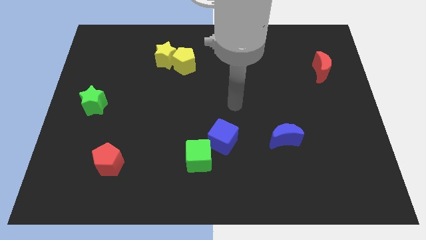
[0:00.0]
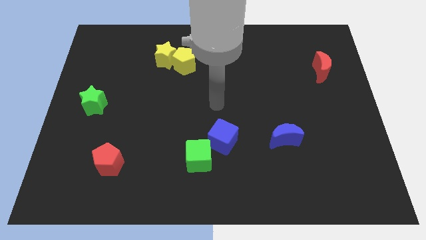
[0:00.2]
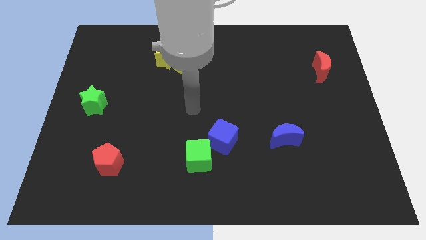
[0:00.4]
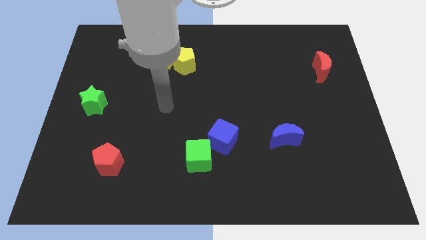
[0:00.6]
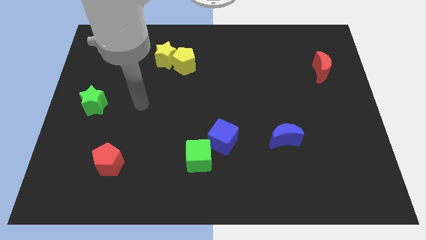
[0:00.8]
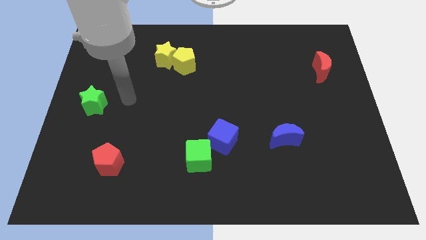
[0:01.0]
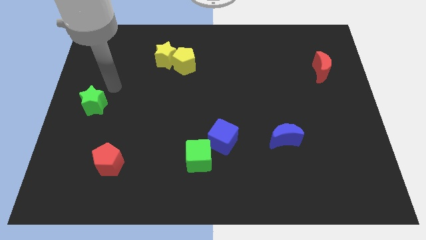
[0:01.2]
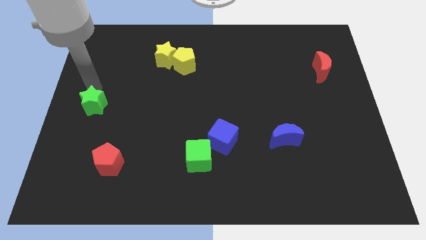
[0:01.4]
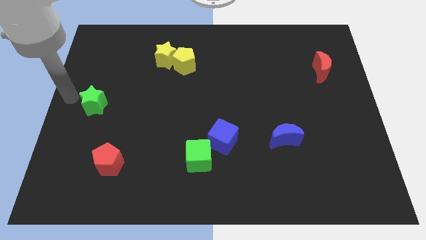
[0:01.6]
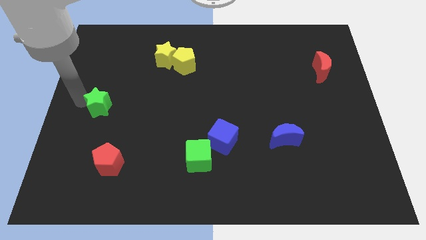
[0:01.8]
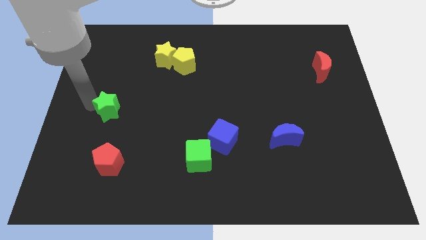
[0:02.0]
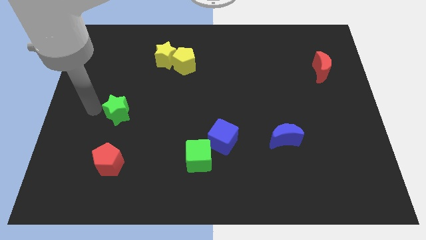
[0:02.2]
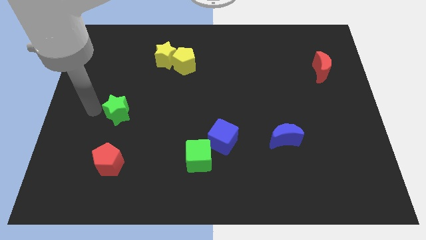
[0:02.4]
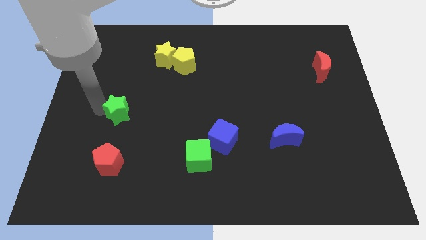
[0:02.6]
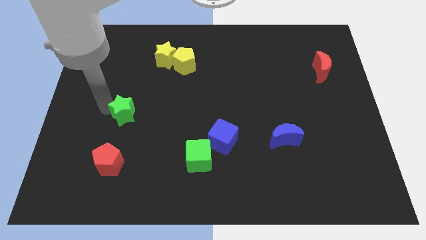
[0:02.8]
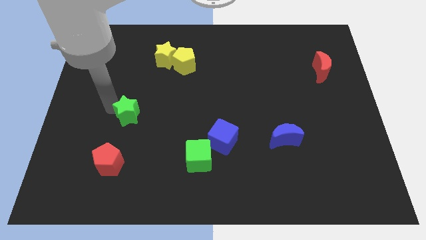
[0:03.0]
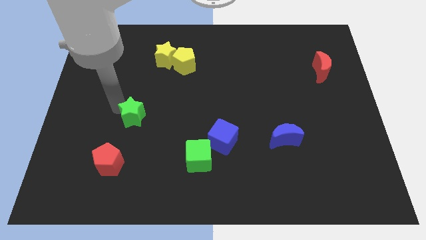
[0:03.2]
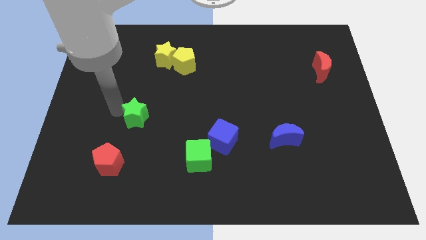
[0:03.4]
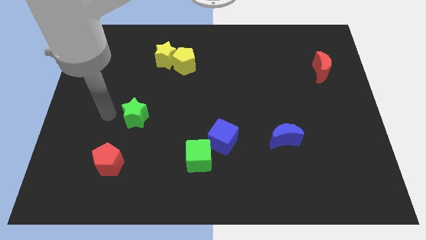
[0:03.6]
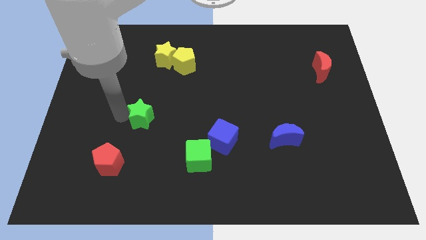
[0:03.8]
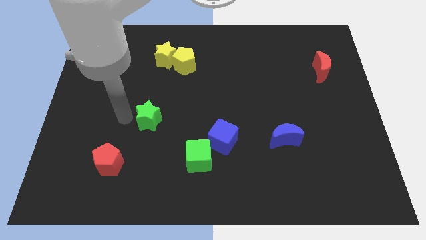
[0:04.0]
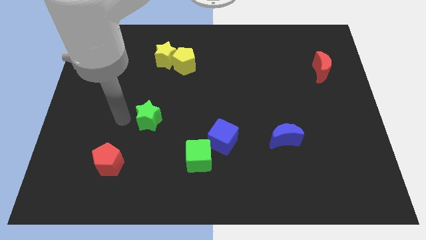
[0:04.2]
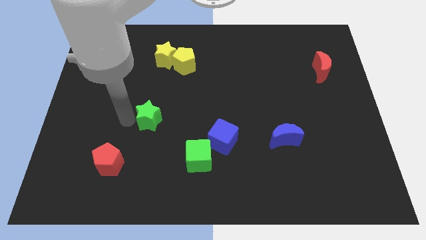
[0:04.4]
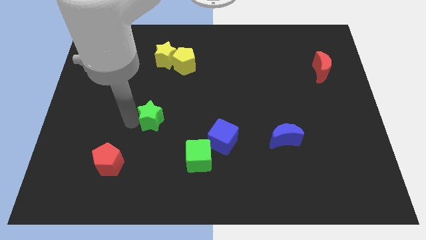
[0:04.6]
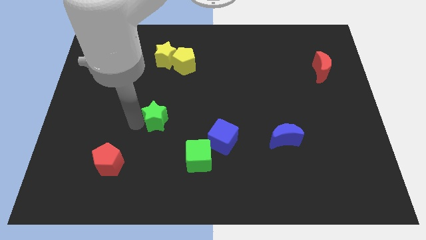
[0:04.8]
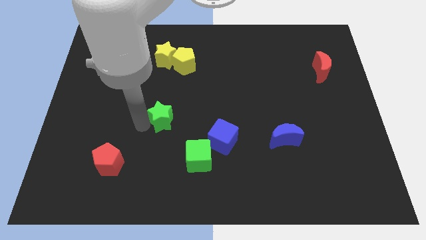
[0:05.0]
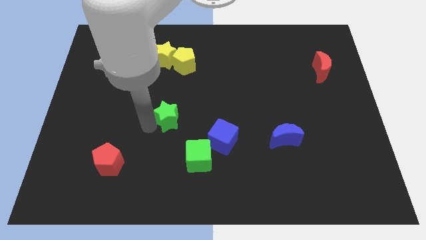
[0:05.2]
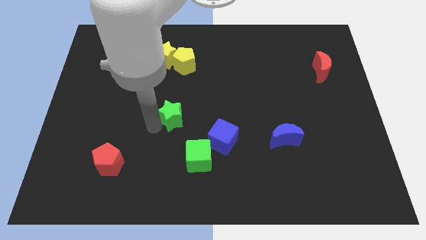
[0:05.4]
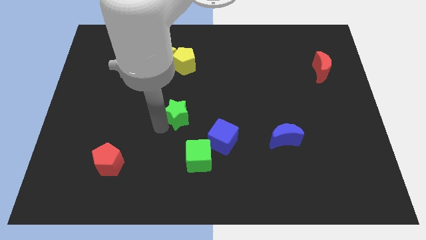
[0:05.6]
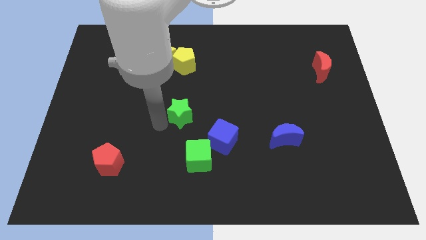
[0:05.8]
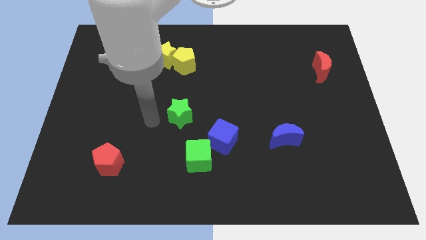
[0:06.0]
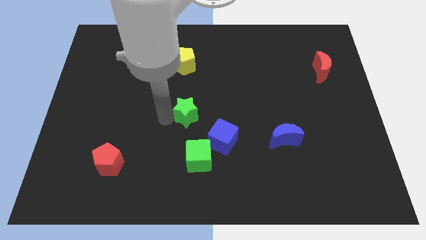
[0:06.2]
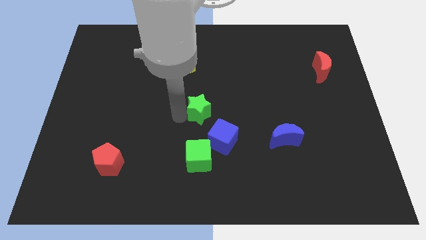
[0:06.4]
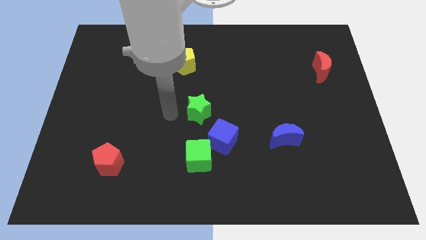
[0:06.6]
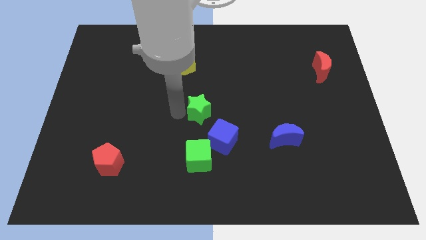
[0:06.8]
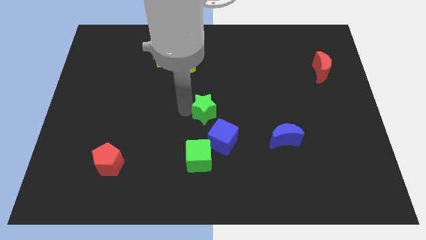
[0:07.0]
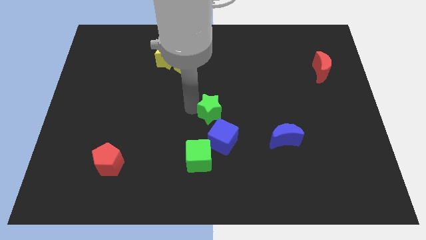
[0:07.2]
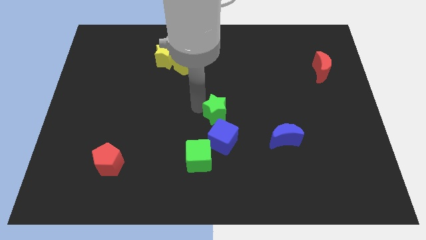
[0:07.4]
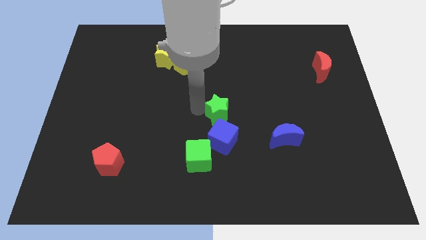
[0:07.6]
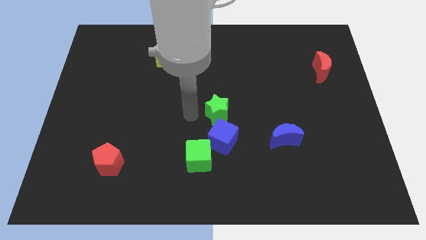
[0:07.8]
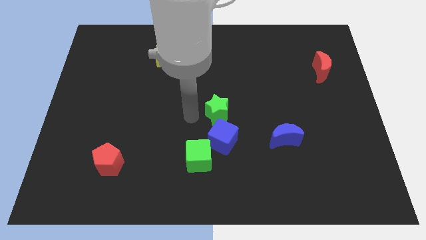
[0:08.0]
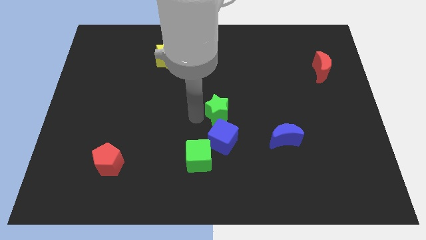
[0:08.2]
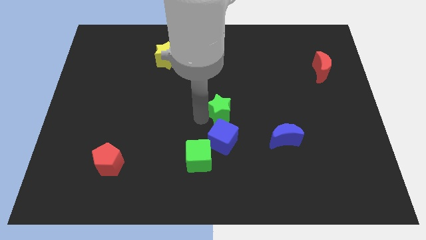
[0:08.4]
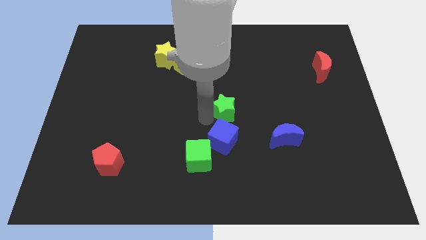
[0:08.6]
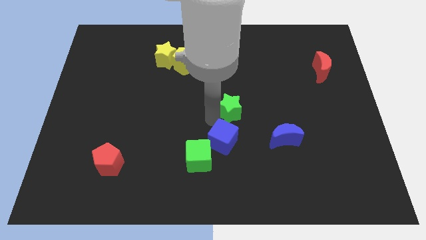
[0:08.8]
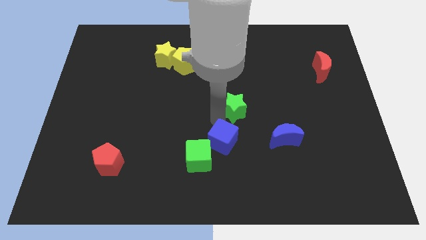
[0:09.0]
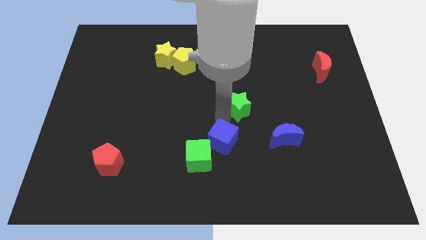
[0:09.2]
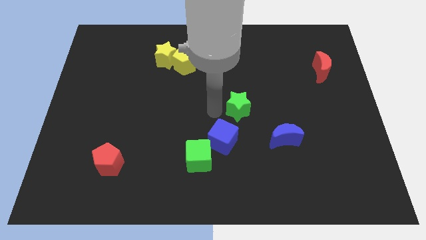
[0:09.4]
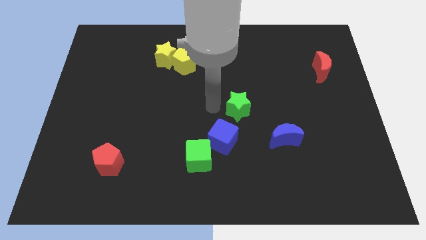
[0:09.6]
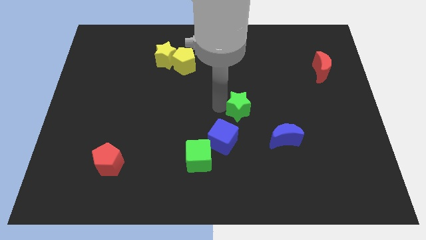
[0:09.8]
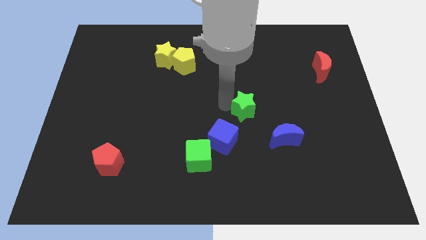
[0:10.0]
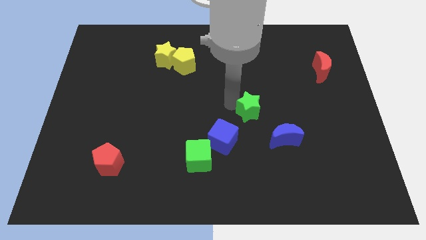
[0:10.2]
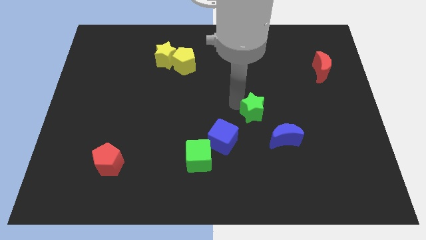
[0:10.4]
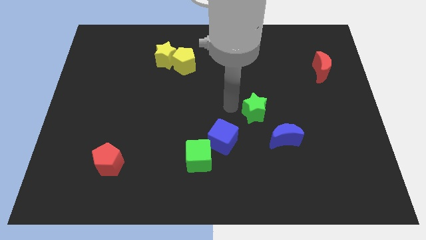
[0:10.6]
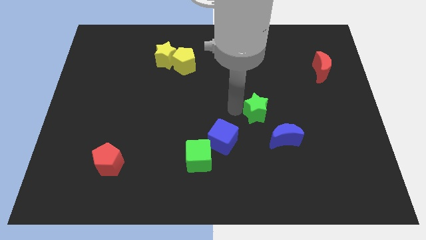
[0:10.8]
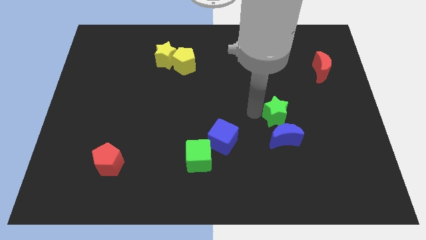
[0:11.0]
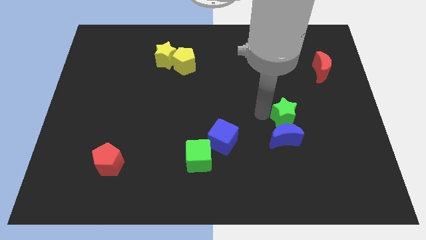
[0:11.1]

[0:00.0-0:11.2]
move the green star to the top right side of the blue moon

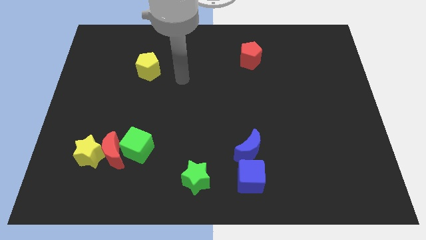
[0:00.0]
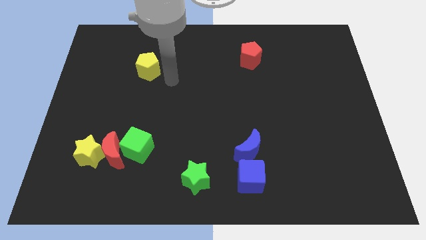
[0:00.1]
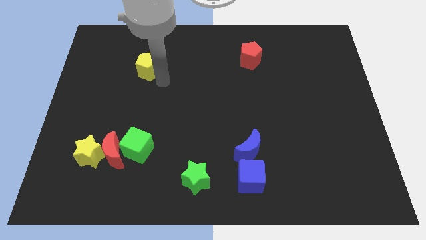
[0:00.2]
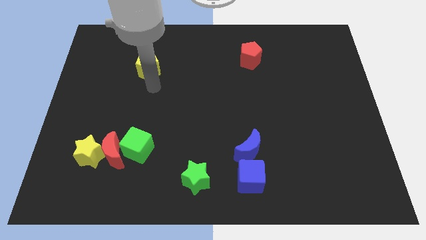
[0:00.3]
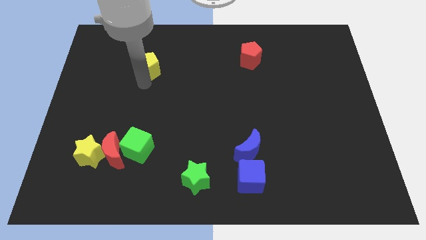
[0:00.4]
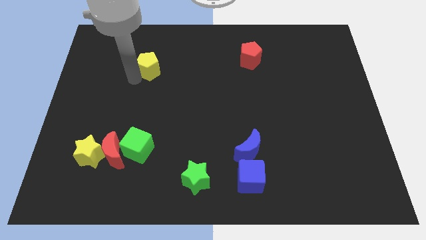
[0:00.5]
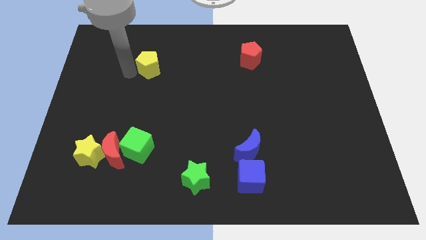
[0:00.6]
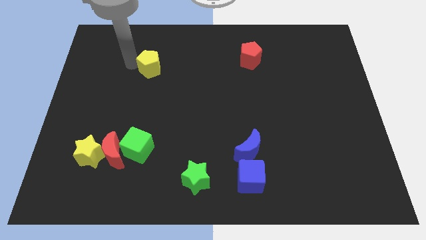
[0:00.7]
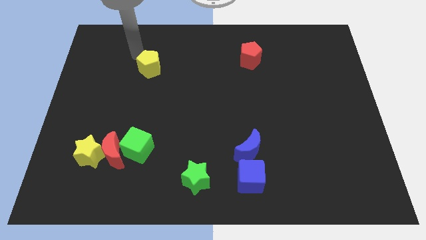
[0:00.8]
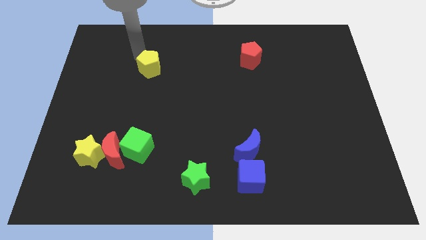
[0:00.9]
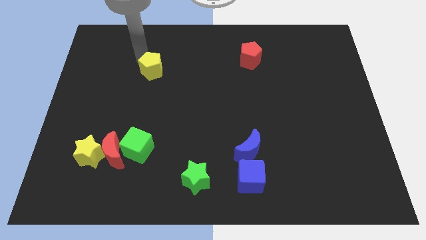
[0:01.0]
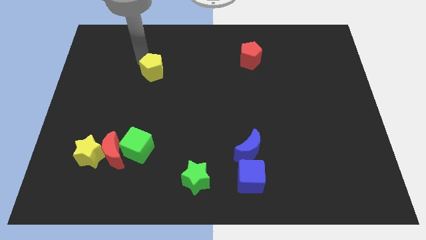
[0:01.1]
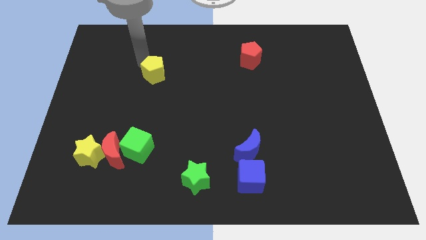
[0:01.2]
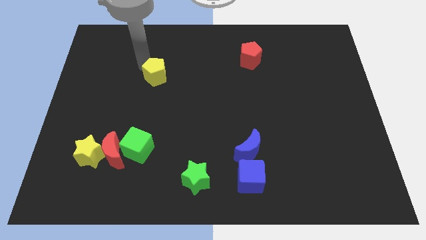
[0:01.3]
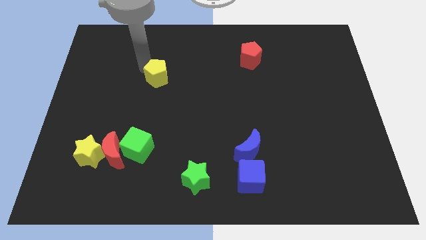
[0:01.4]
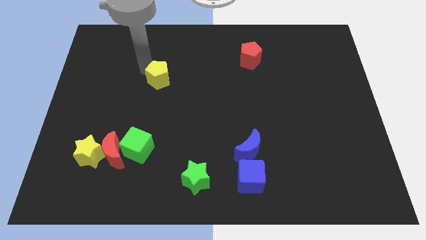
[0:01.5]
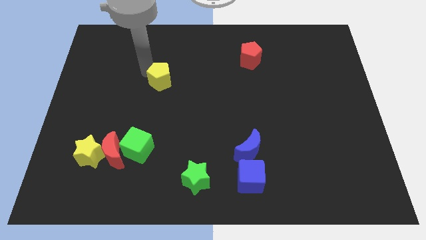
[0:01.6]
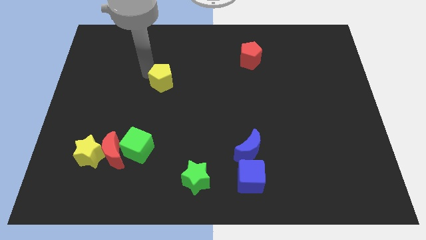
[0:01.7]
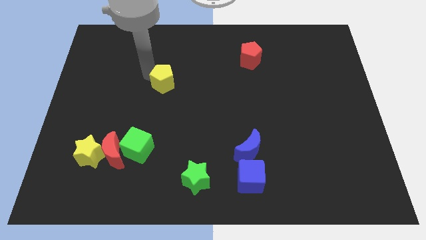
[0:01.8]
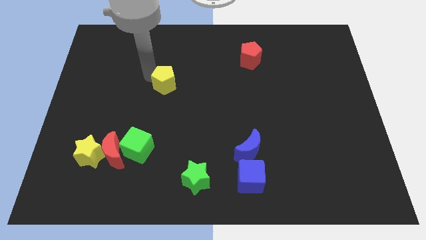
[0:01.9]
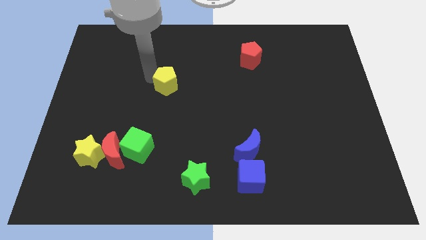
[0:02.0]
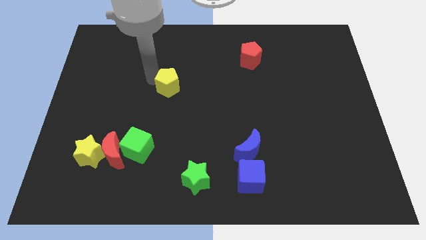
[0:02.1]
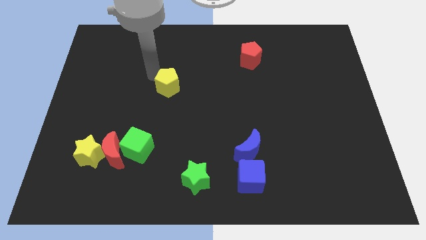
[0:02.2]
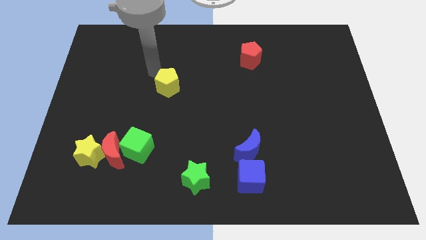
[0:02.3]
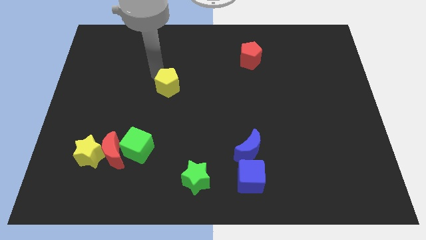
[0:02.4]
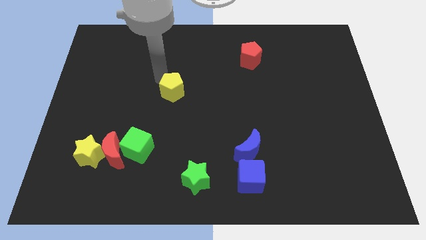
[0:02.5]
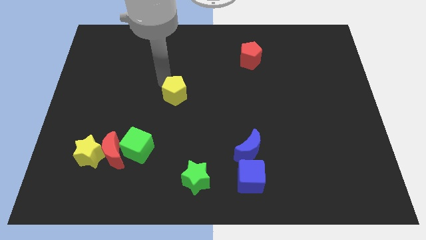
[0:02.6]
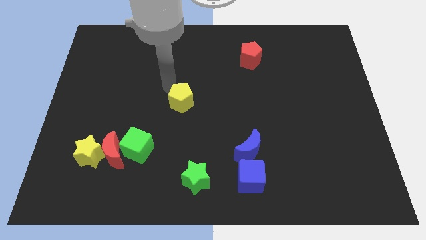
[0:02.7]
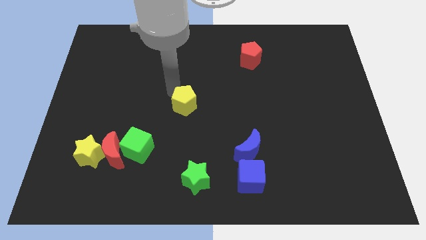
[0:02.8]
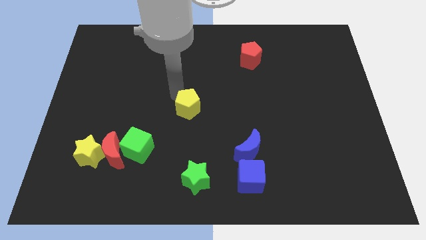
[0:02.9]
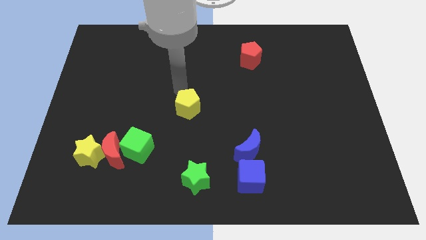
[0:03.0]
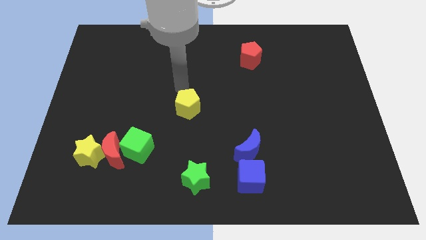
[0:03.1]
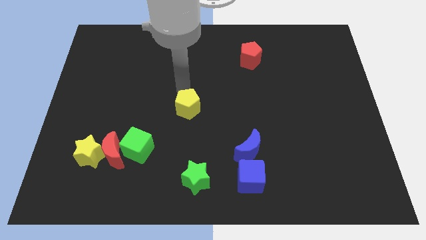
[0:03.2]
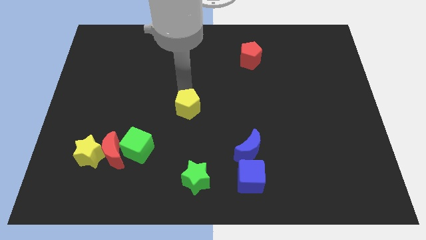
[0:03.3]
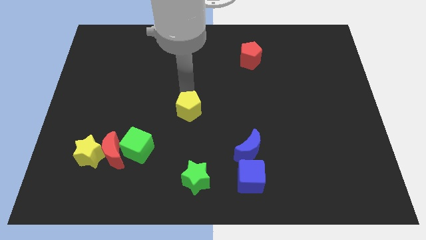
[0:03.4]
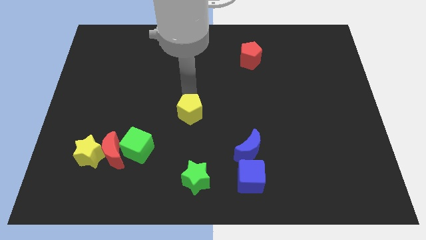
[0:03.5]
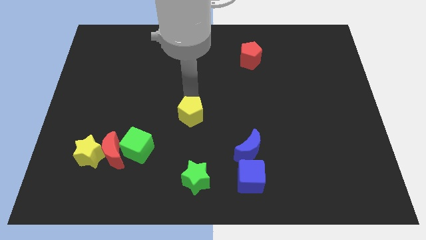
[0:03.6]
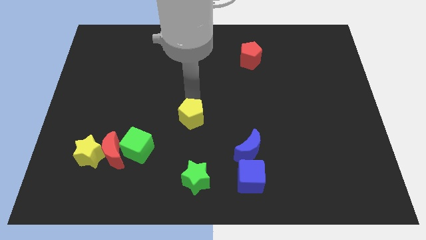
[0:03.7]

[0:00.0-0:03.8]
put the yellow pentagon to the top of the green star
